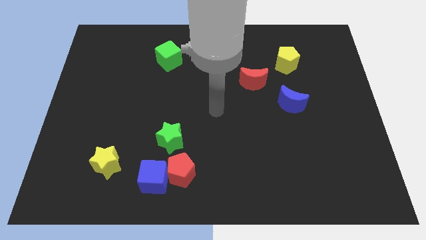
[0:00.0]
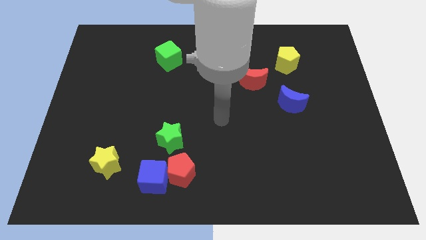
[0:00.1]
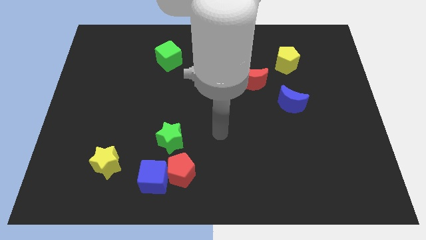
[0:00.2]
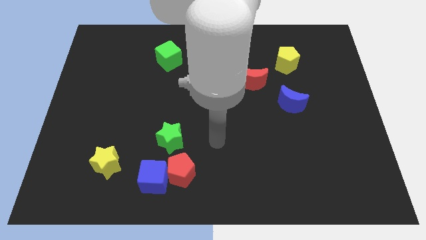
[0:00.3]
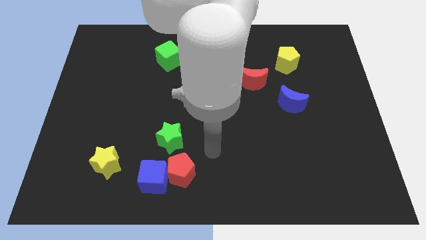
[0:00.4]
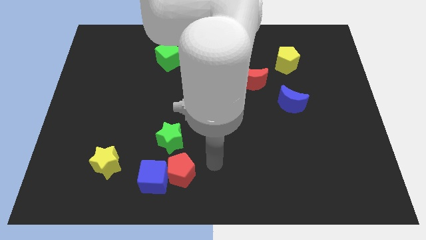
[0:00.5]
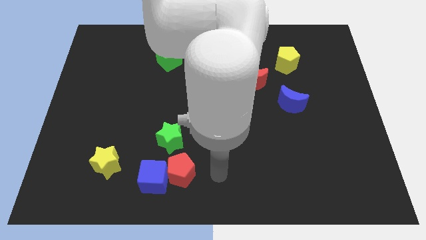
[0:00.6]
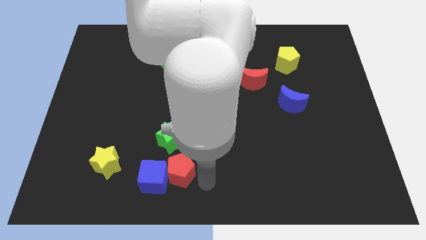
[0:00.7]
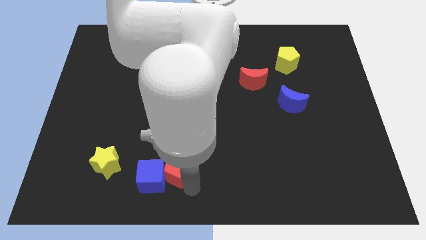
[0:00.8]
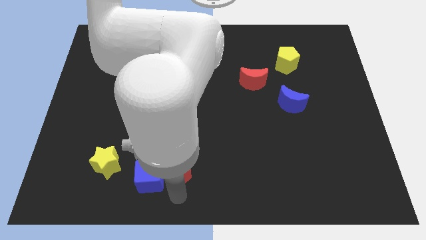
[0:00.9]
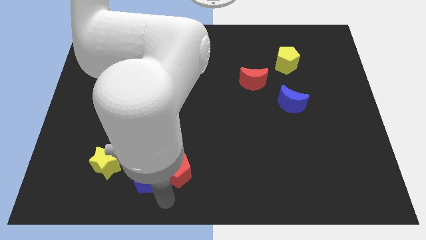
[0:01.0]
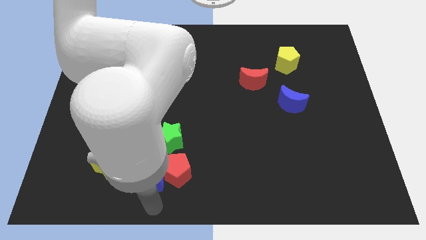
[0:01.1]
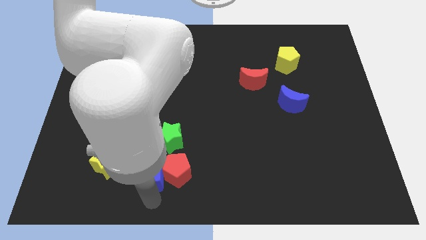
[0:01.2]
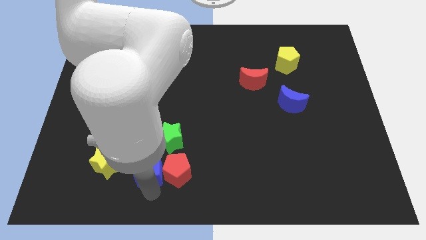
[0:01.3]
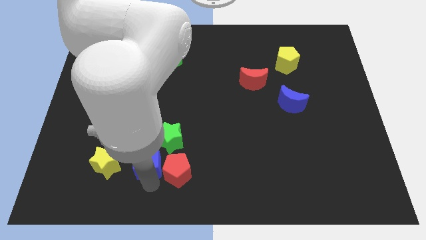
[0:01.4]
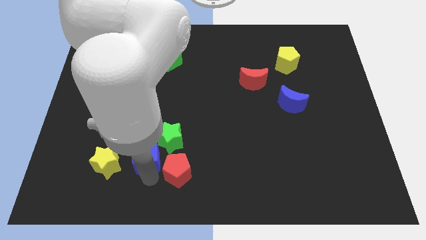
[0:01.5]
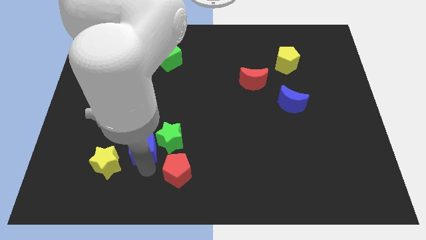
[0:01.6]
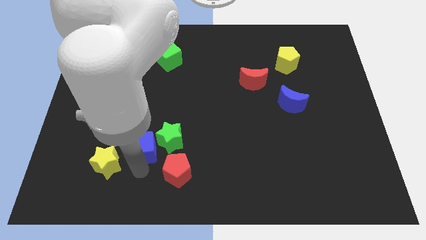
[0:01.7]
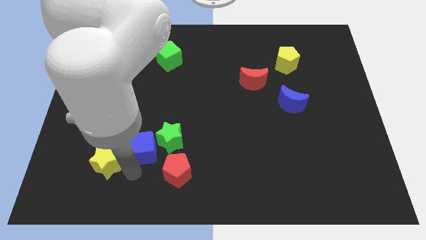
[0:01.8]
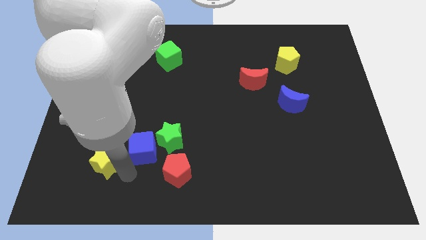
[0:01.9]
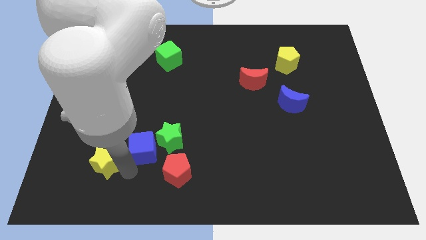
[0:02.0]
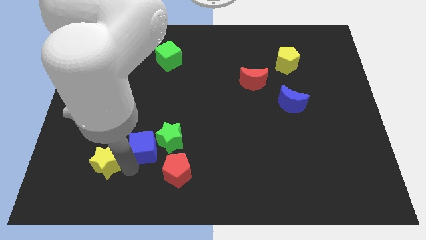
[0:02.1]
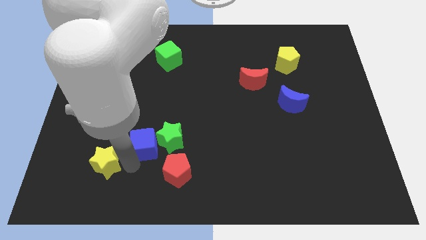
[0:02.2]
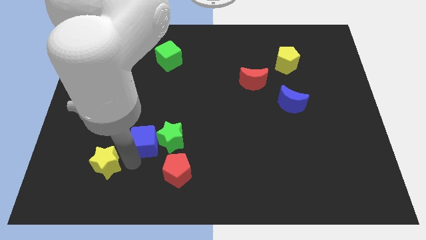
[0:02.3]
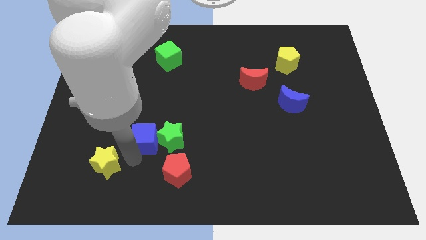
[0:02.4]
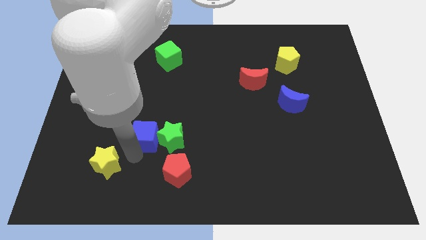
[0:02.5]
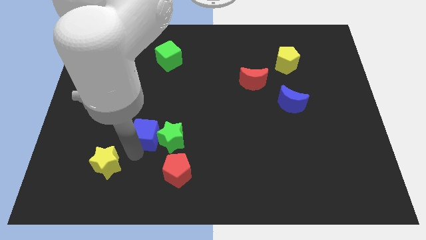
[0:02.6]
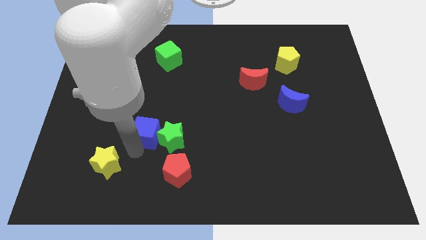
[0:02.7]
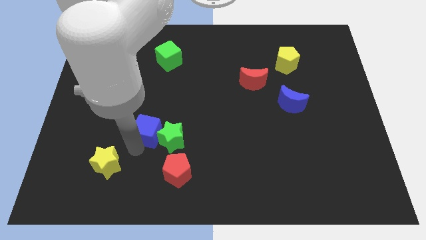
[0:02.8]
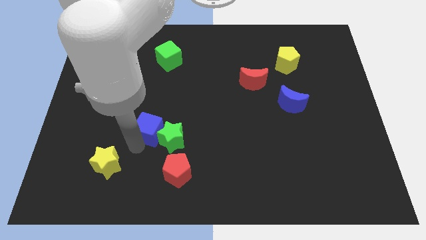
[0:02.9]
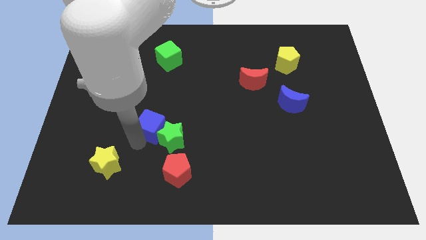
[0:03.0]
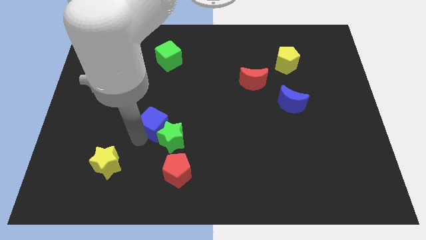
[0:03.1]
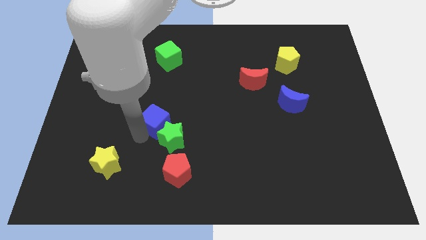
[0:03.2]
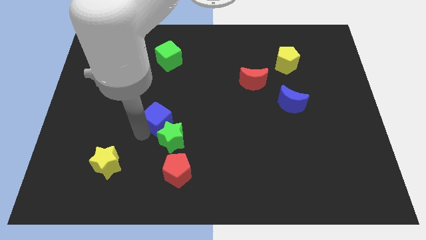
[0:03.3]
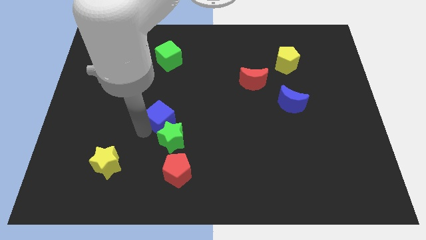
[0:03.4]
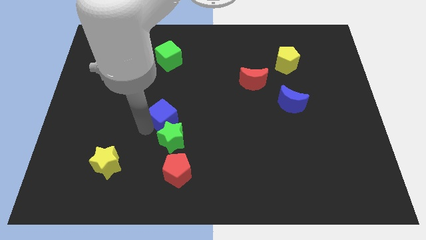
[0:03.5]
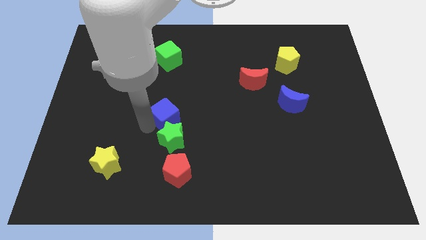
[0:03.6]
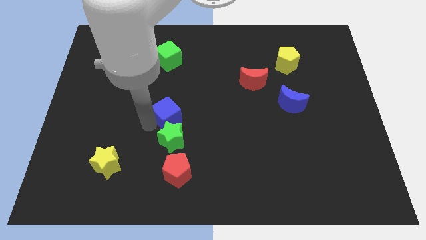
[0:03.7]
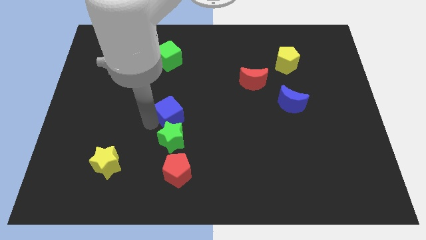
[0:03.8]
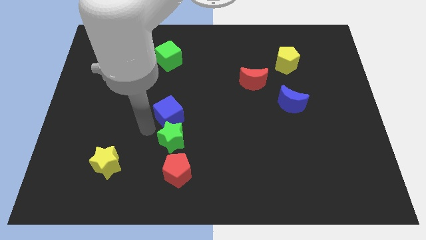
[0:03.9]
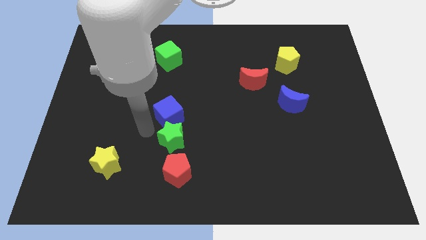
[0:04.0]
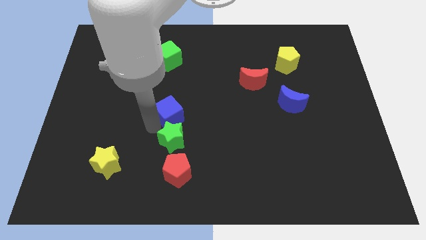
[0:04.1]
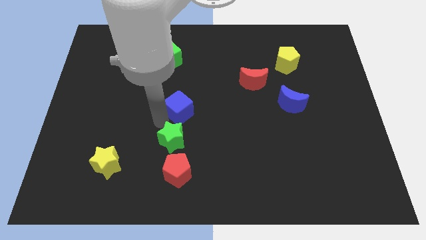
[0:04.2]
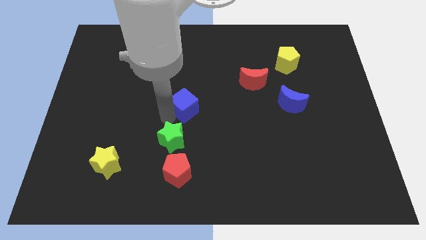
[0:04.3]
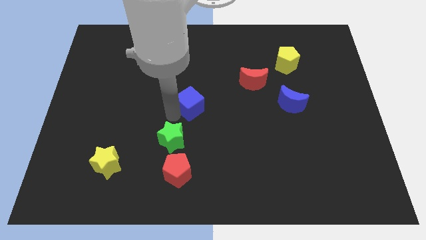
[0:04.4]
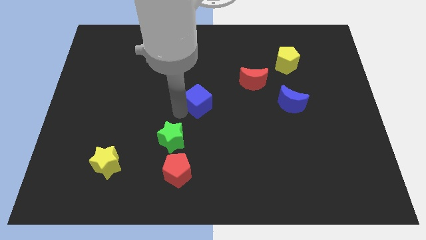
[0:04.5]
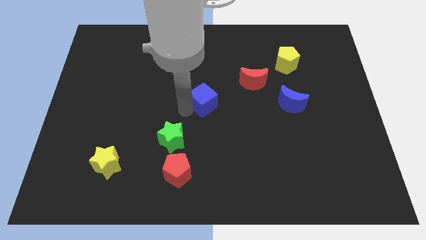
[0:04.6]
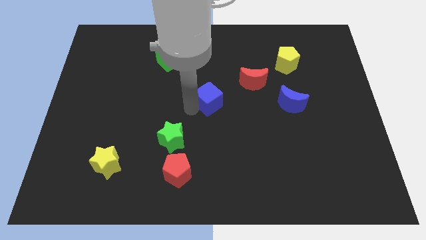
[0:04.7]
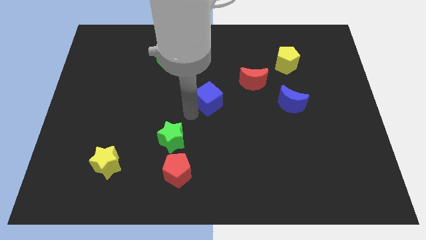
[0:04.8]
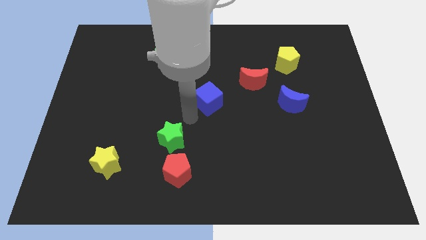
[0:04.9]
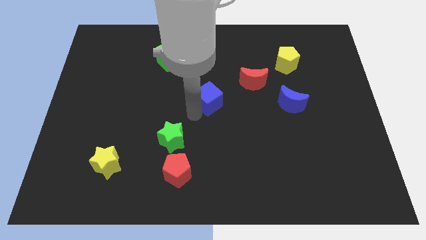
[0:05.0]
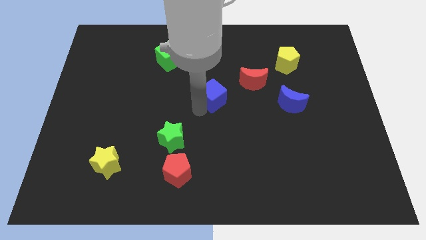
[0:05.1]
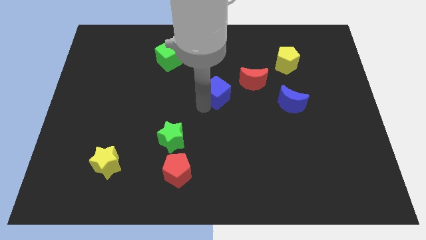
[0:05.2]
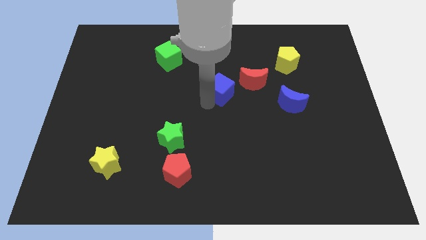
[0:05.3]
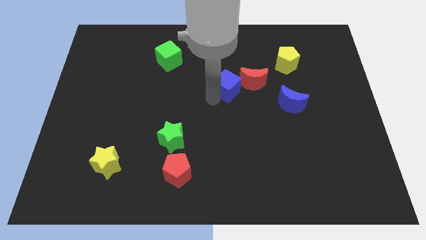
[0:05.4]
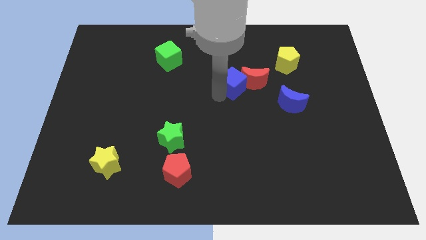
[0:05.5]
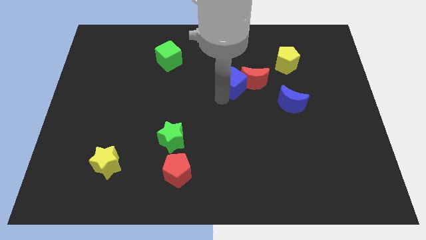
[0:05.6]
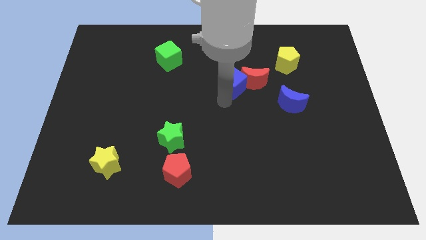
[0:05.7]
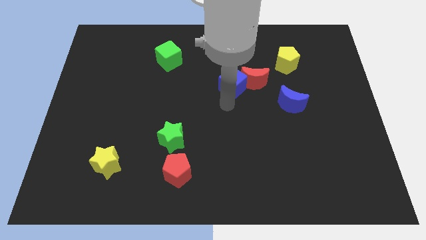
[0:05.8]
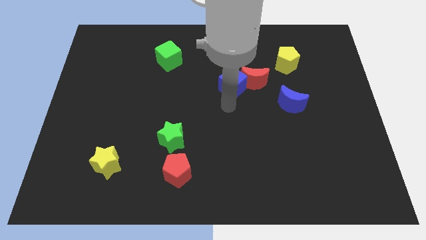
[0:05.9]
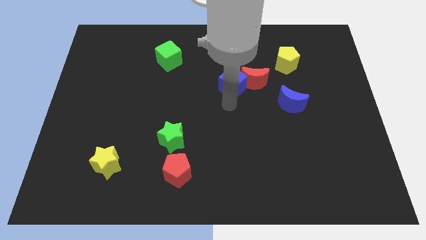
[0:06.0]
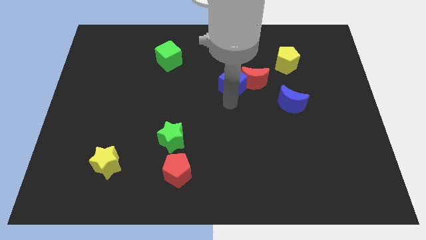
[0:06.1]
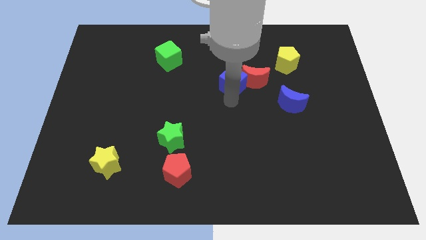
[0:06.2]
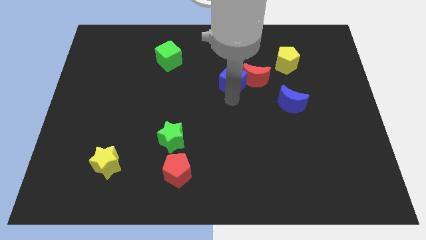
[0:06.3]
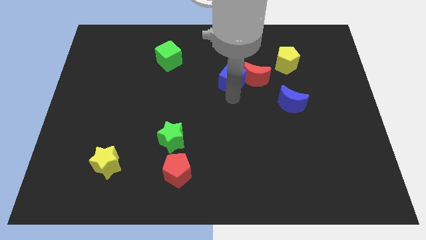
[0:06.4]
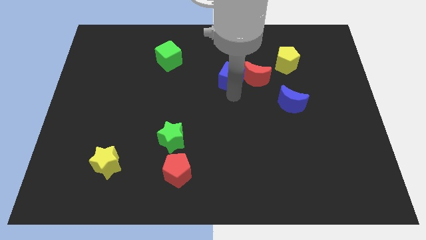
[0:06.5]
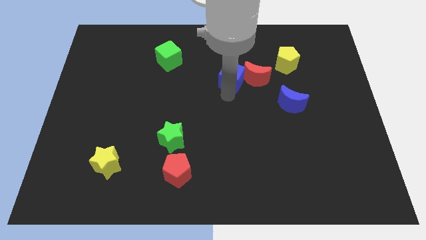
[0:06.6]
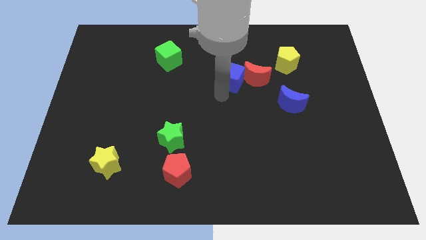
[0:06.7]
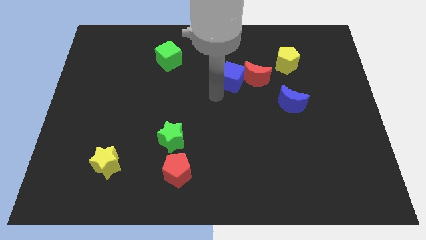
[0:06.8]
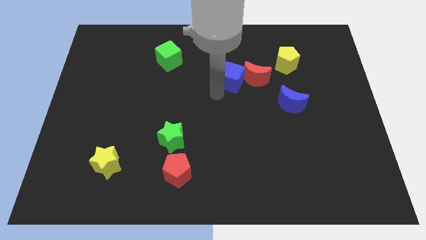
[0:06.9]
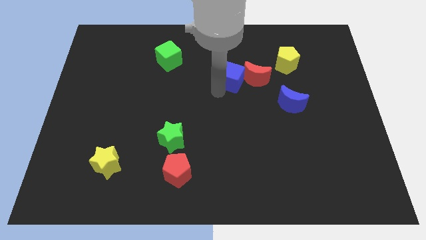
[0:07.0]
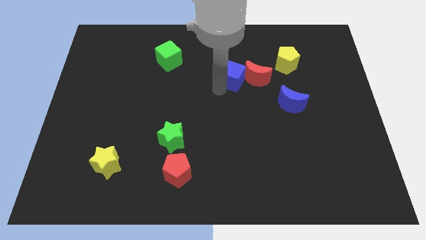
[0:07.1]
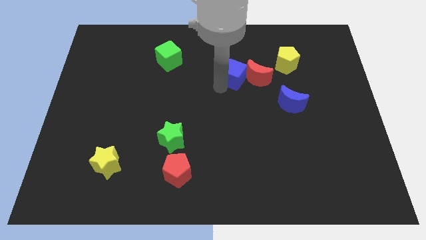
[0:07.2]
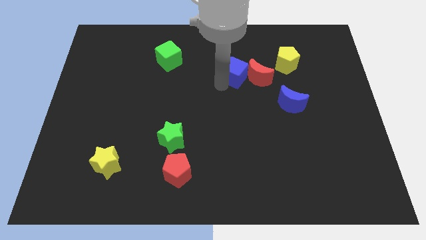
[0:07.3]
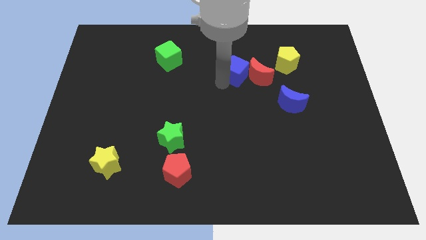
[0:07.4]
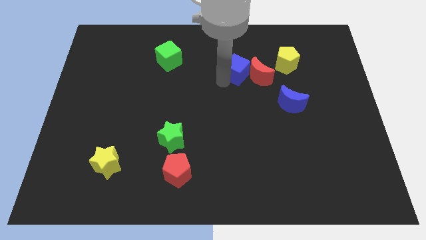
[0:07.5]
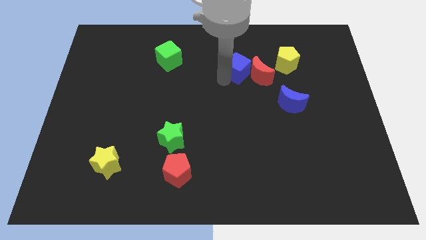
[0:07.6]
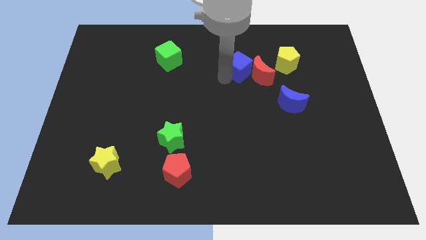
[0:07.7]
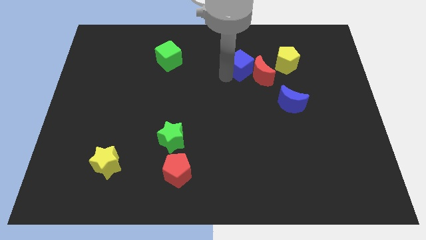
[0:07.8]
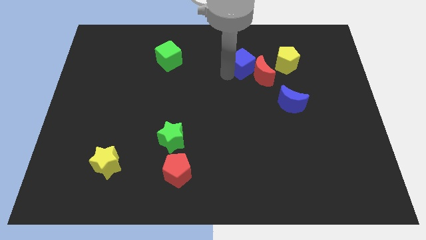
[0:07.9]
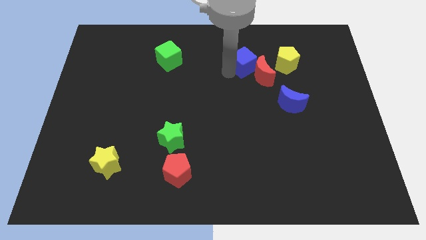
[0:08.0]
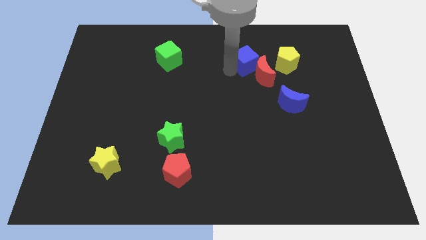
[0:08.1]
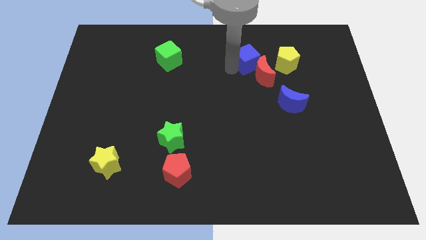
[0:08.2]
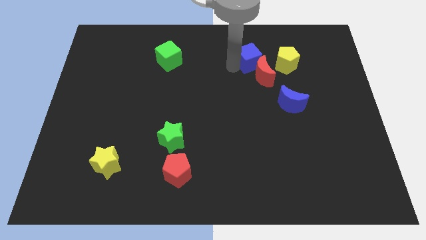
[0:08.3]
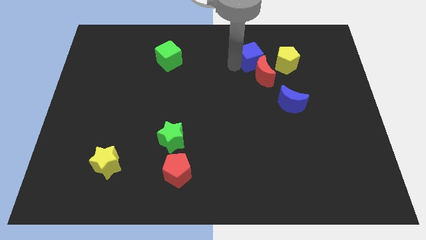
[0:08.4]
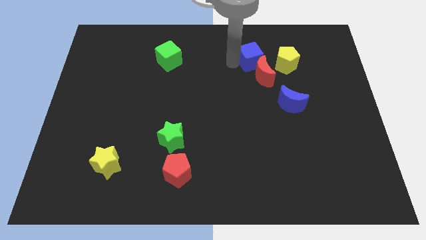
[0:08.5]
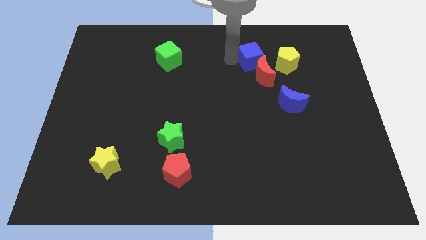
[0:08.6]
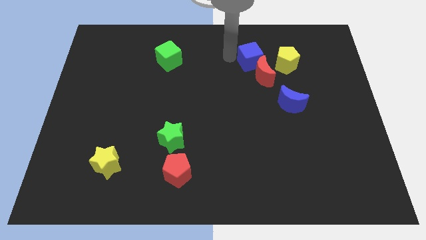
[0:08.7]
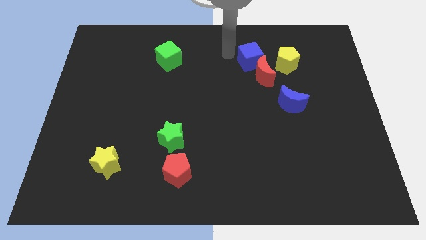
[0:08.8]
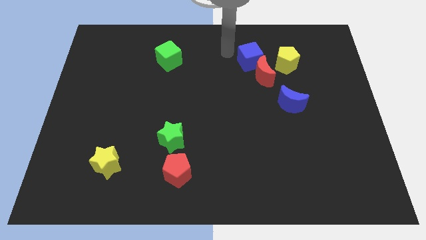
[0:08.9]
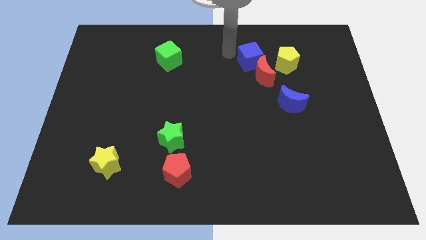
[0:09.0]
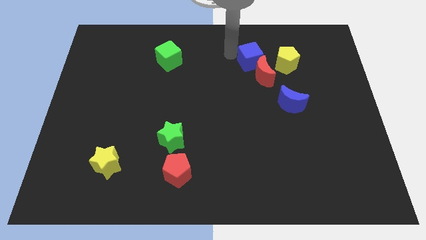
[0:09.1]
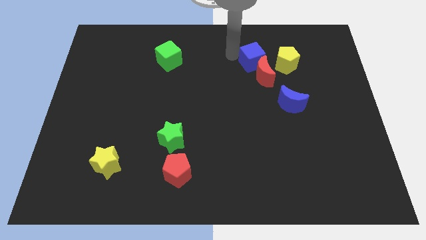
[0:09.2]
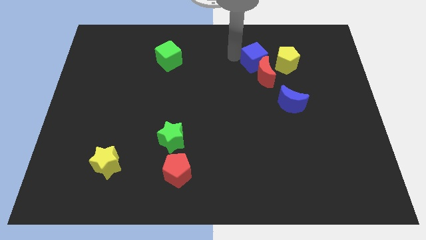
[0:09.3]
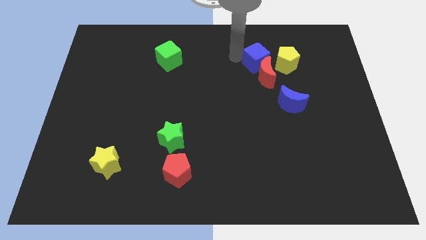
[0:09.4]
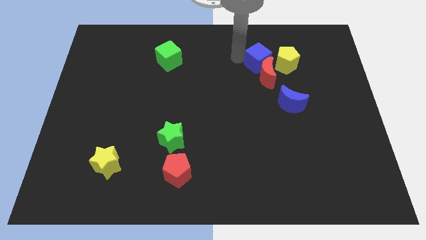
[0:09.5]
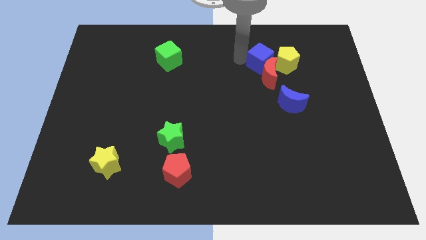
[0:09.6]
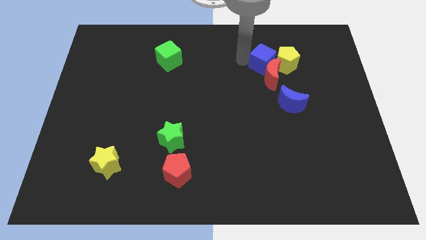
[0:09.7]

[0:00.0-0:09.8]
move the blue cube to the yellow pentagon
